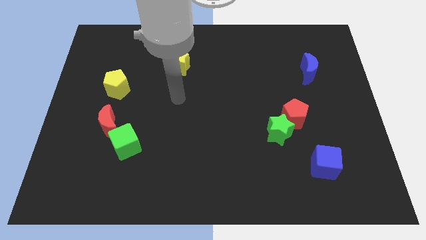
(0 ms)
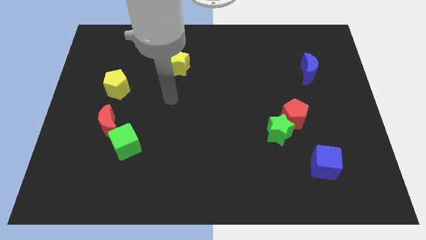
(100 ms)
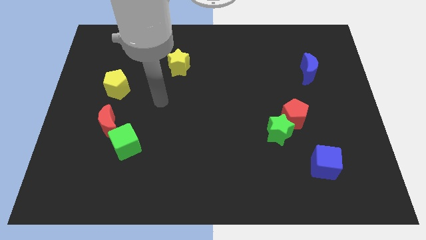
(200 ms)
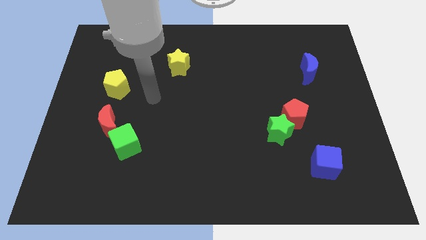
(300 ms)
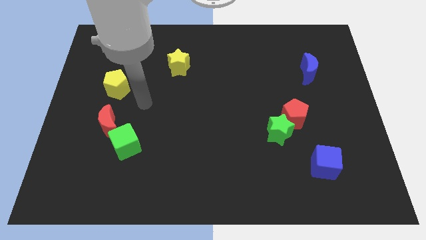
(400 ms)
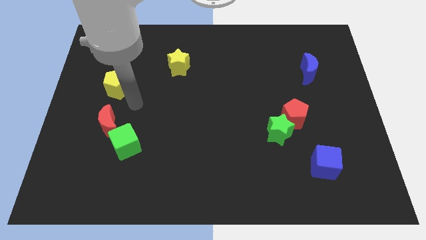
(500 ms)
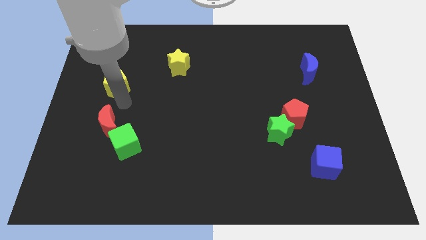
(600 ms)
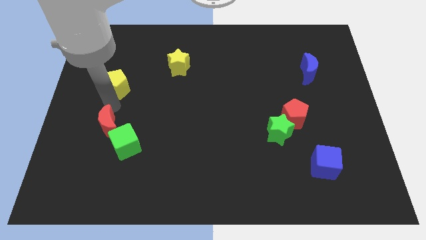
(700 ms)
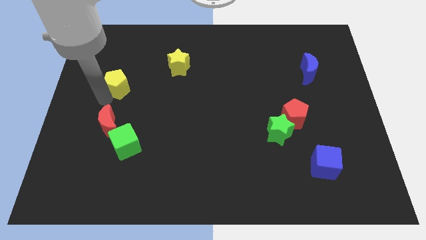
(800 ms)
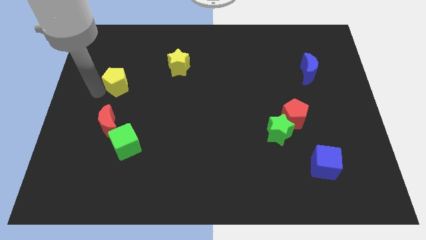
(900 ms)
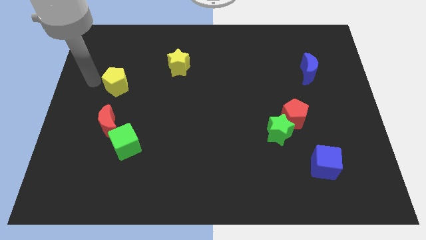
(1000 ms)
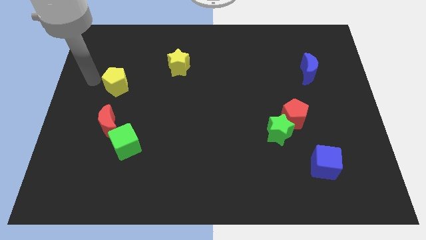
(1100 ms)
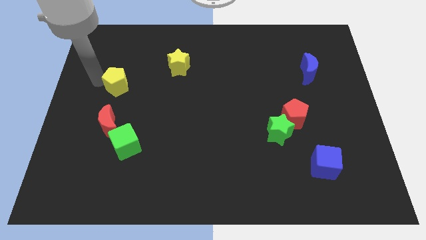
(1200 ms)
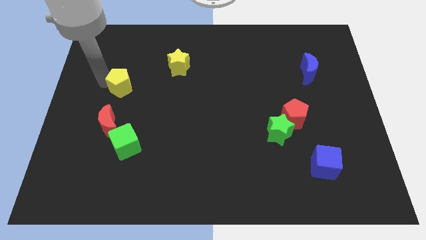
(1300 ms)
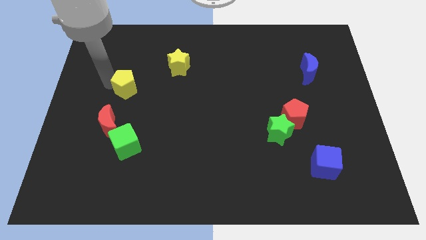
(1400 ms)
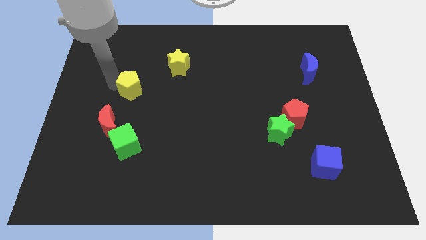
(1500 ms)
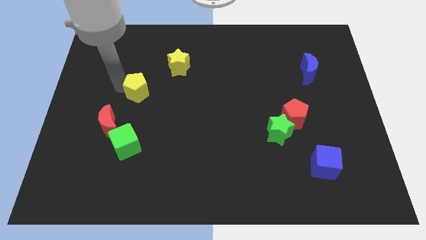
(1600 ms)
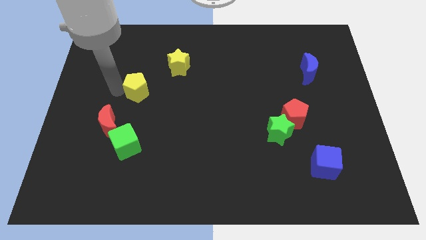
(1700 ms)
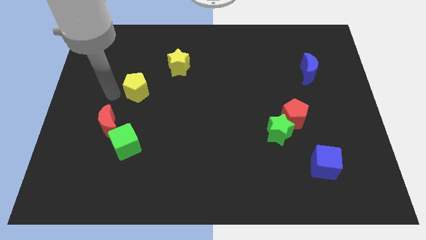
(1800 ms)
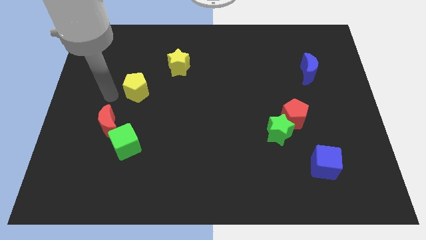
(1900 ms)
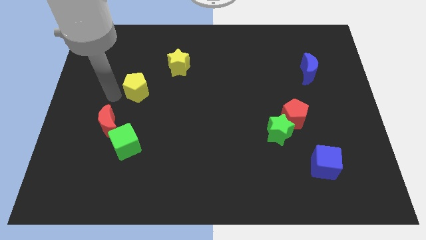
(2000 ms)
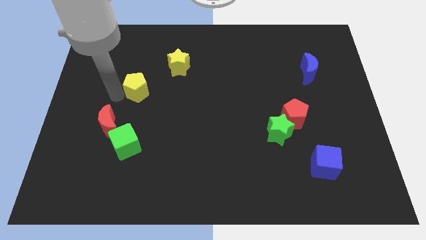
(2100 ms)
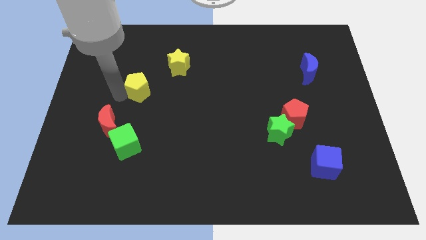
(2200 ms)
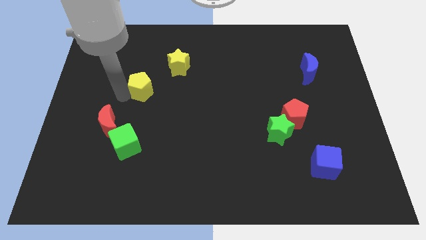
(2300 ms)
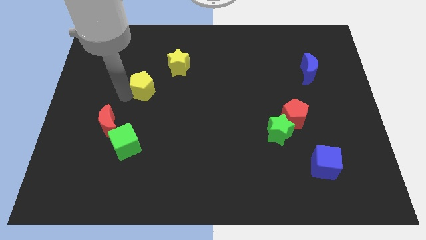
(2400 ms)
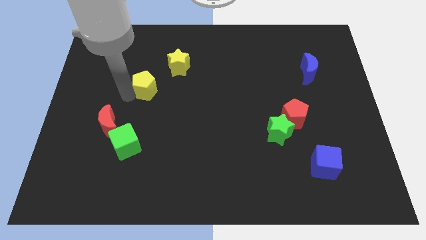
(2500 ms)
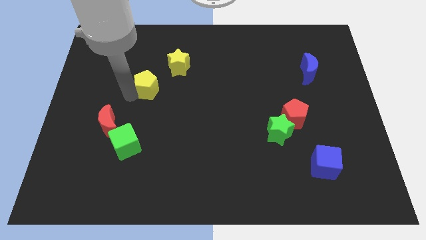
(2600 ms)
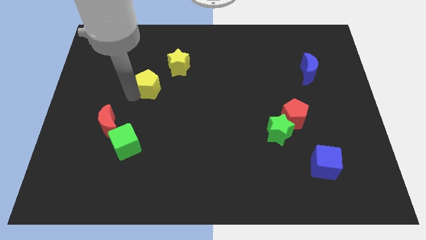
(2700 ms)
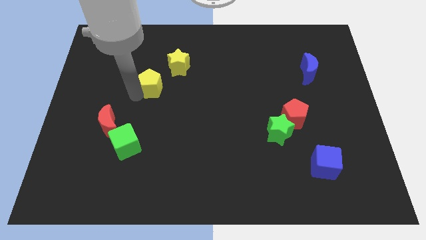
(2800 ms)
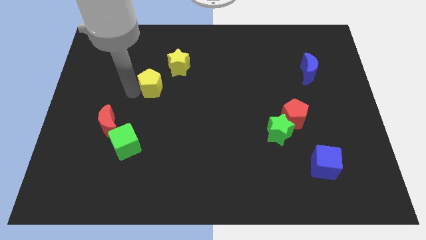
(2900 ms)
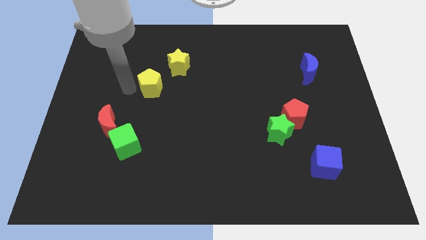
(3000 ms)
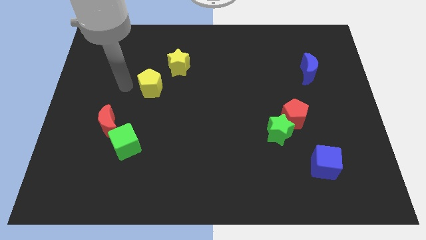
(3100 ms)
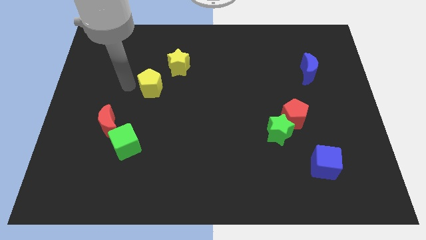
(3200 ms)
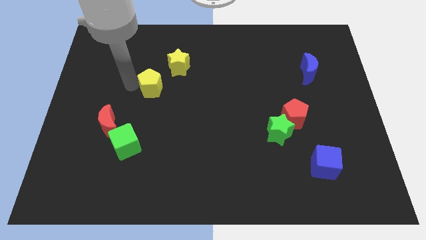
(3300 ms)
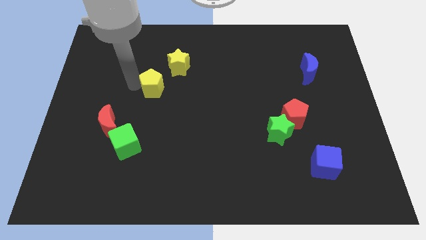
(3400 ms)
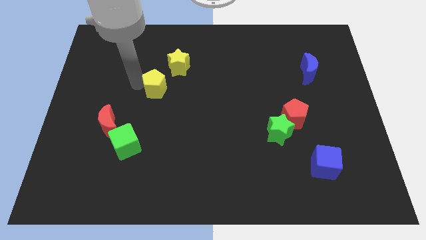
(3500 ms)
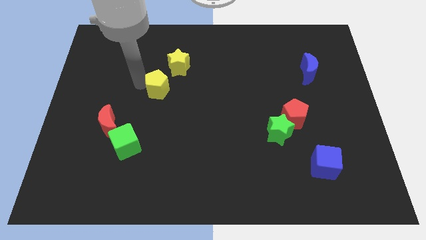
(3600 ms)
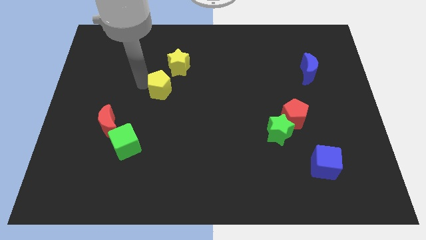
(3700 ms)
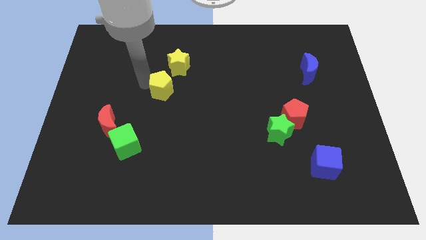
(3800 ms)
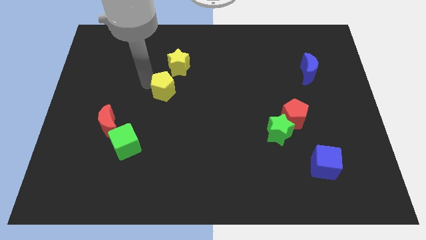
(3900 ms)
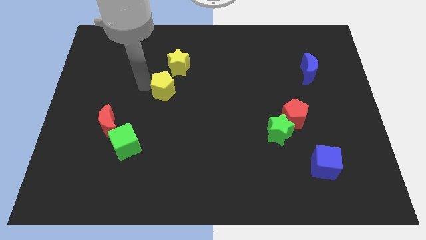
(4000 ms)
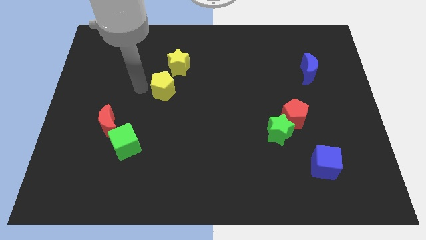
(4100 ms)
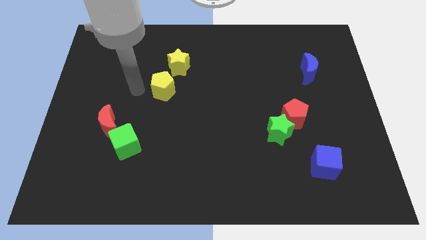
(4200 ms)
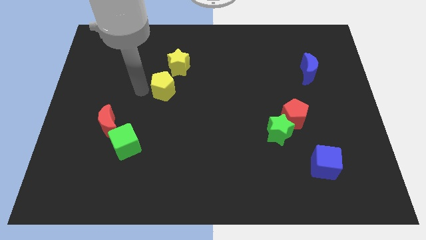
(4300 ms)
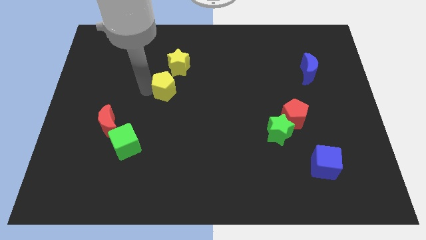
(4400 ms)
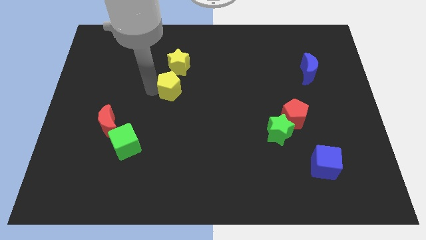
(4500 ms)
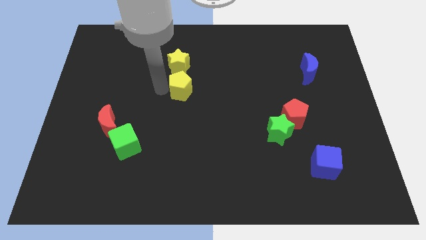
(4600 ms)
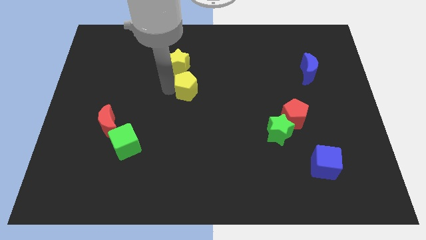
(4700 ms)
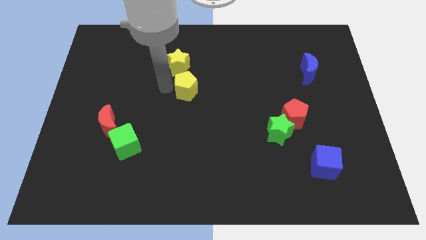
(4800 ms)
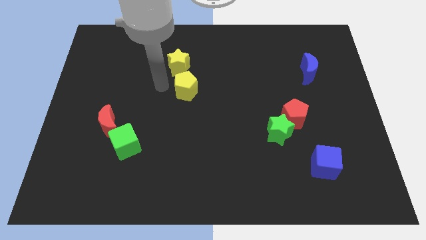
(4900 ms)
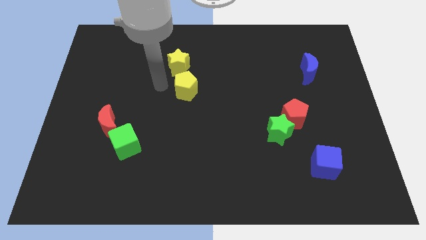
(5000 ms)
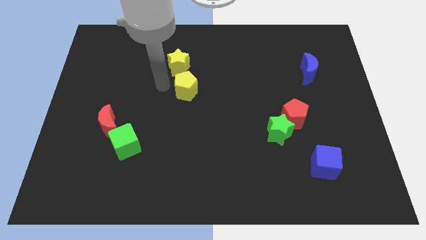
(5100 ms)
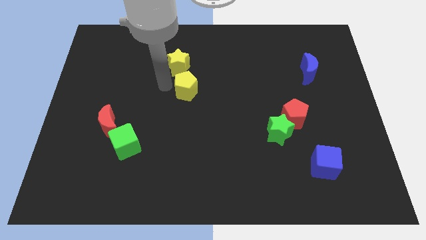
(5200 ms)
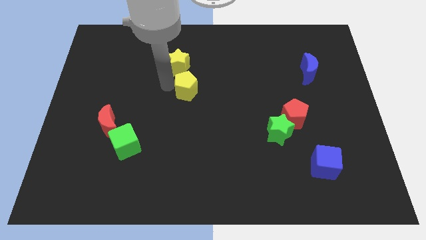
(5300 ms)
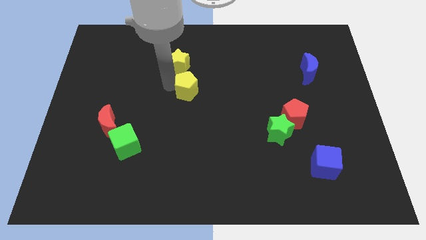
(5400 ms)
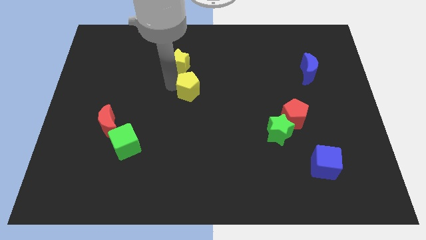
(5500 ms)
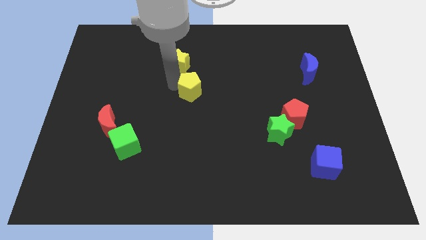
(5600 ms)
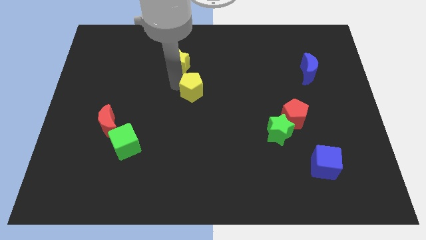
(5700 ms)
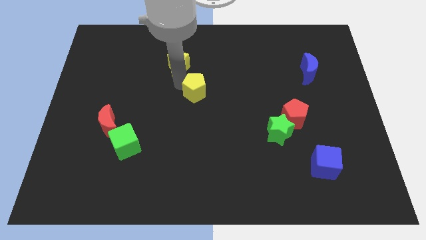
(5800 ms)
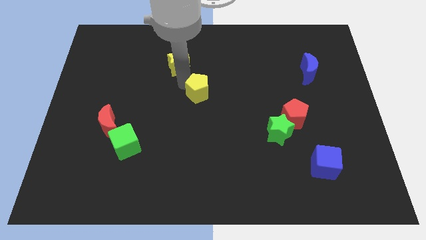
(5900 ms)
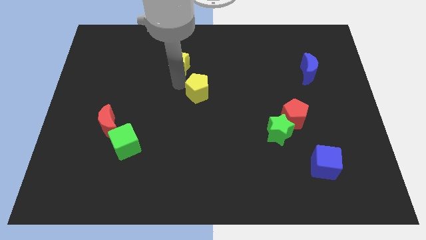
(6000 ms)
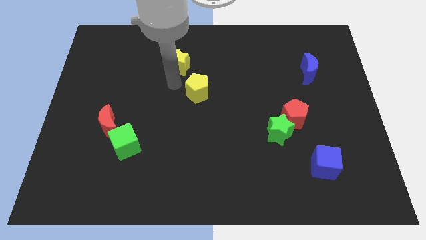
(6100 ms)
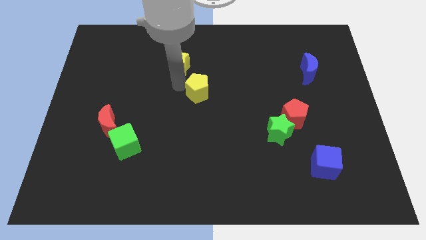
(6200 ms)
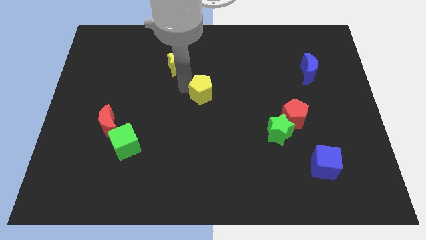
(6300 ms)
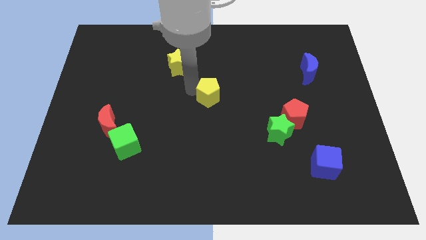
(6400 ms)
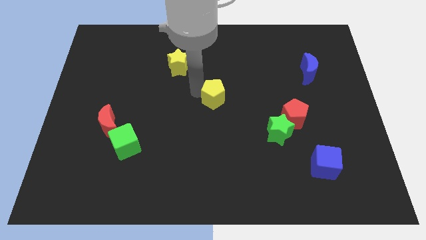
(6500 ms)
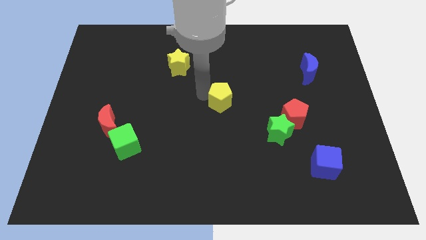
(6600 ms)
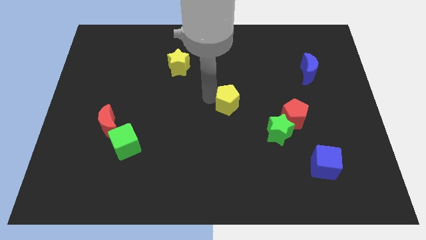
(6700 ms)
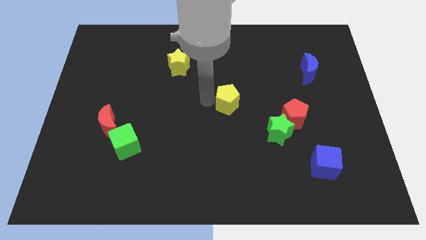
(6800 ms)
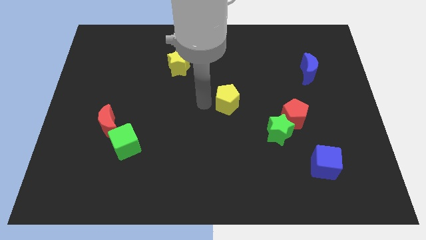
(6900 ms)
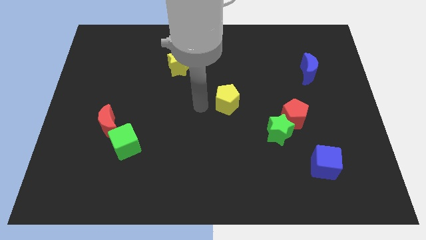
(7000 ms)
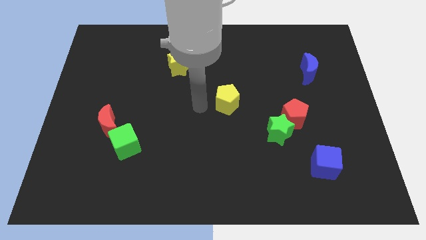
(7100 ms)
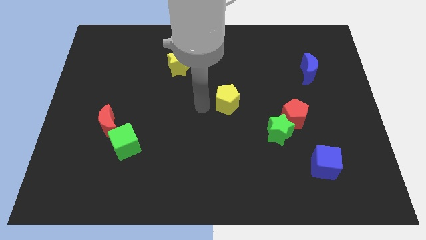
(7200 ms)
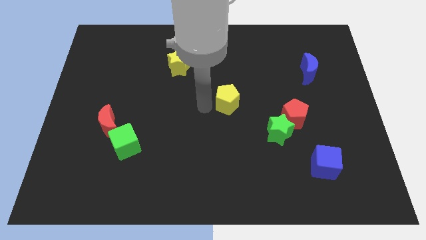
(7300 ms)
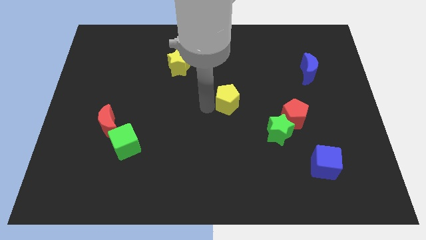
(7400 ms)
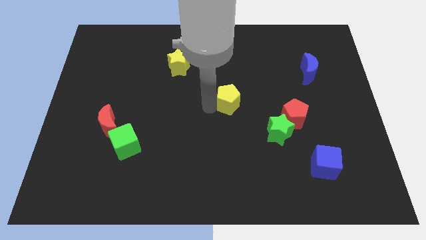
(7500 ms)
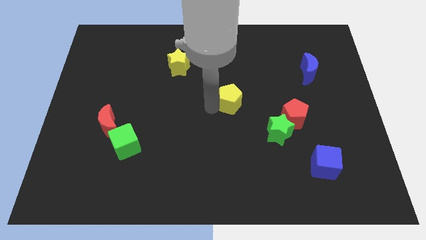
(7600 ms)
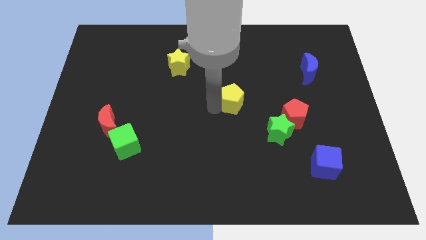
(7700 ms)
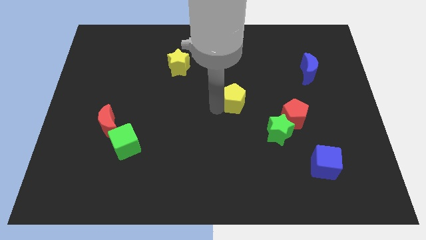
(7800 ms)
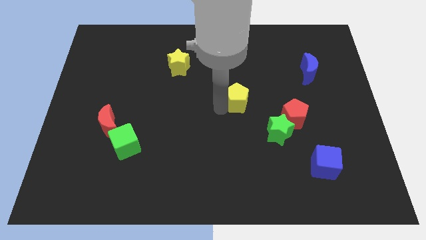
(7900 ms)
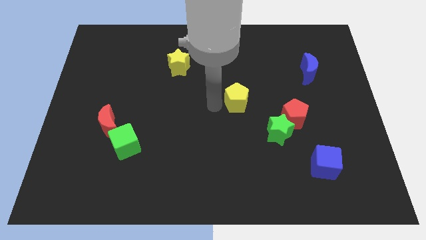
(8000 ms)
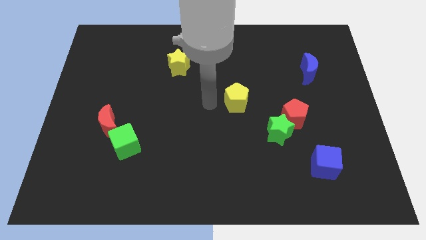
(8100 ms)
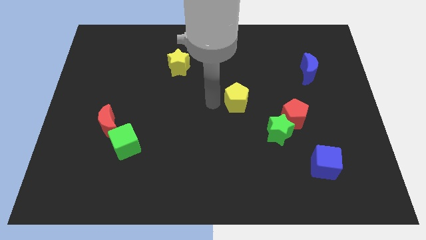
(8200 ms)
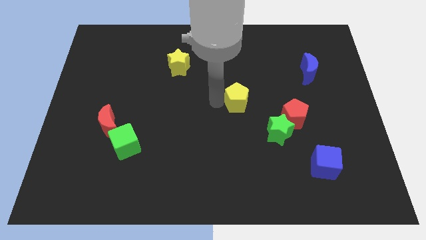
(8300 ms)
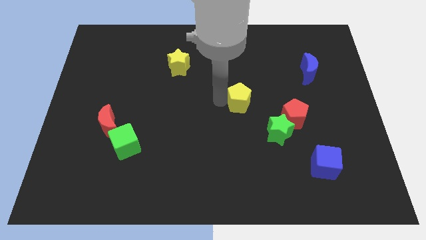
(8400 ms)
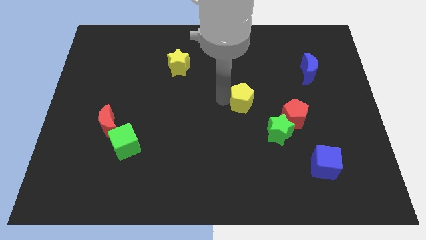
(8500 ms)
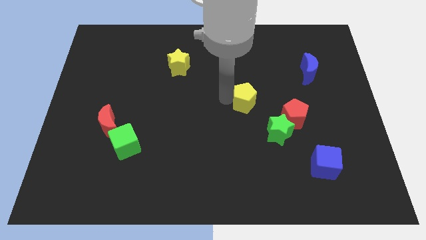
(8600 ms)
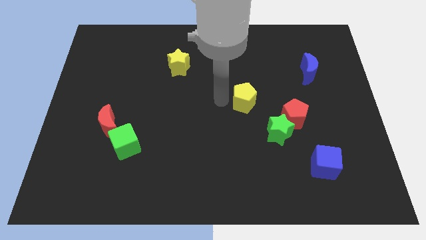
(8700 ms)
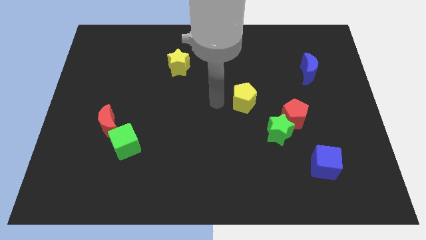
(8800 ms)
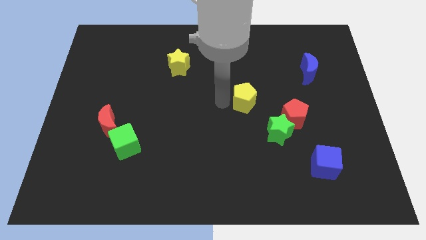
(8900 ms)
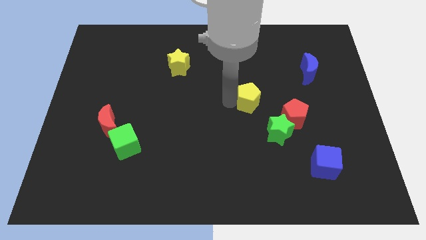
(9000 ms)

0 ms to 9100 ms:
slide the yellow pentagon to the top left side of the red pentagon
